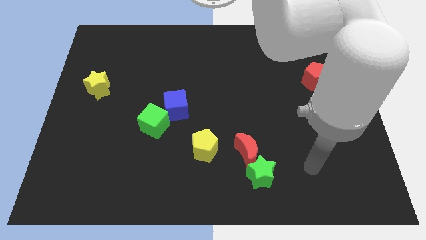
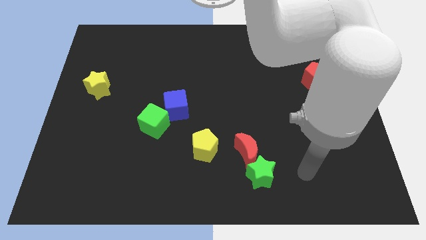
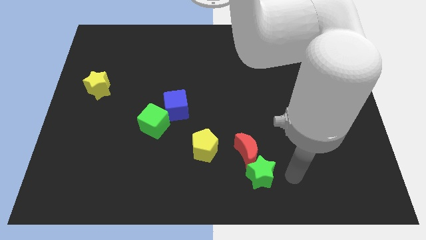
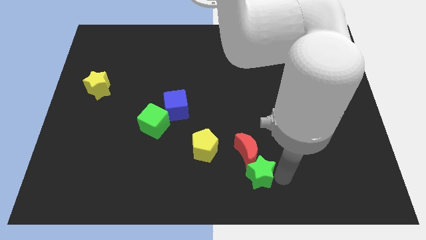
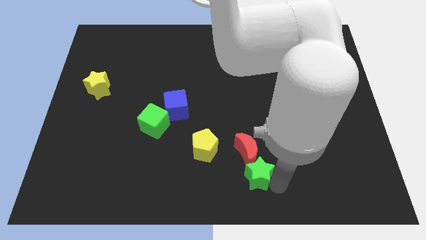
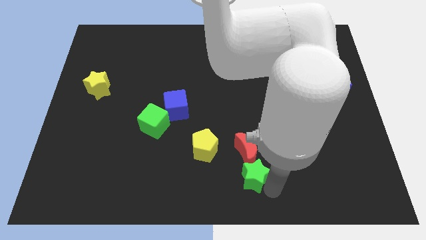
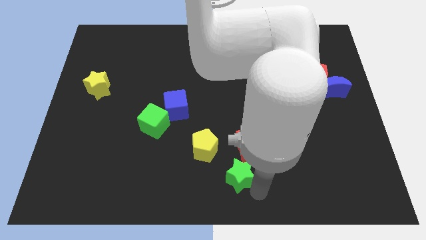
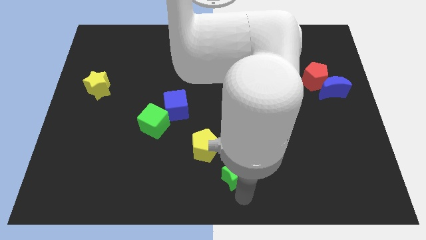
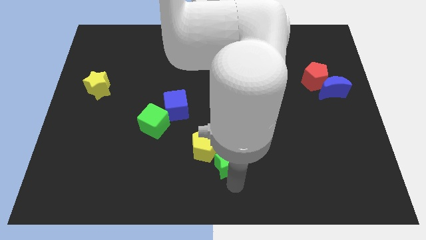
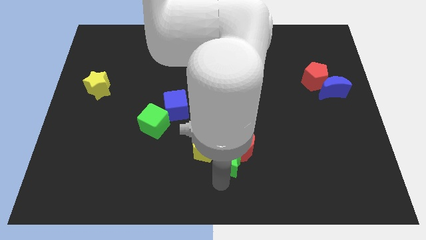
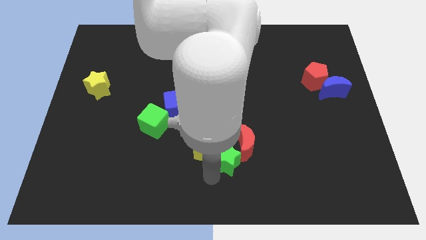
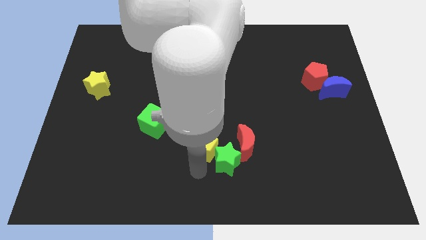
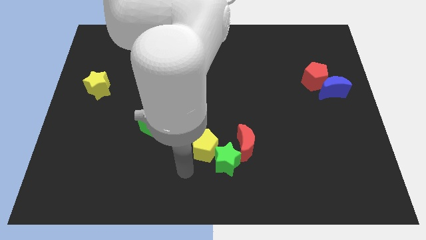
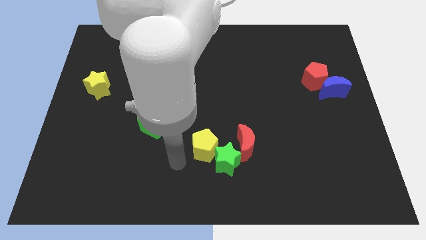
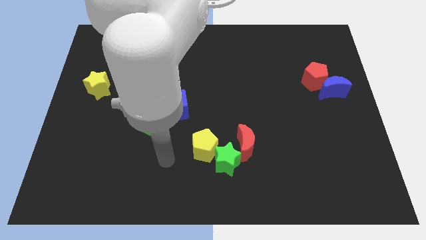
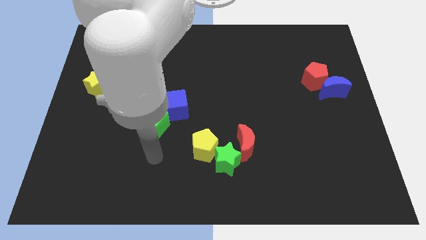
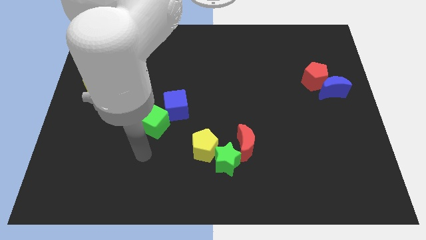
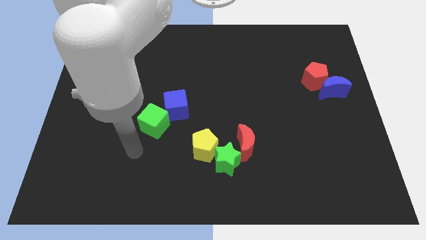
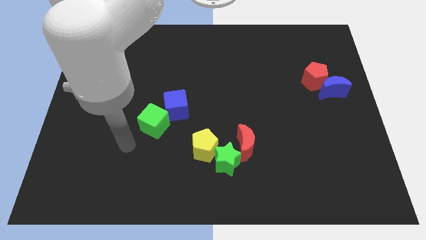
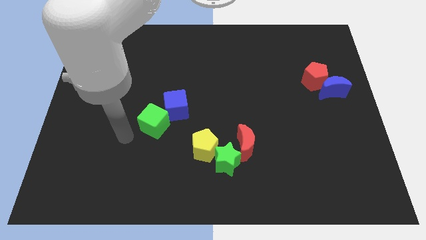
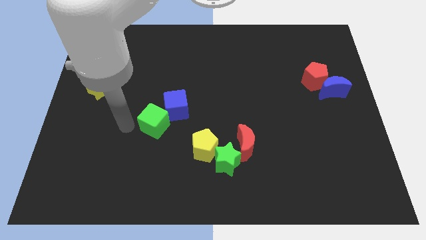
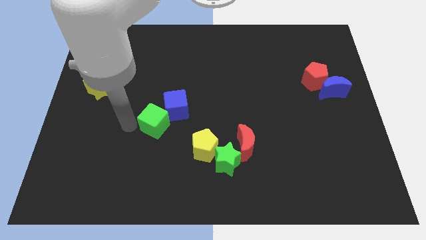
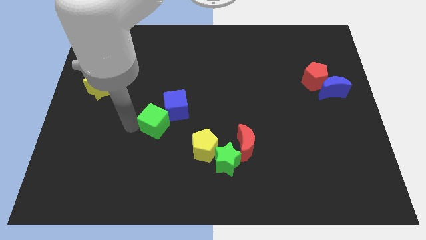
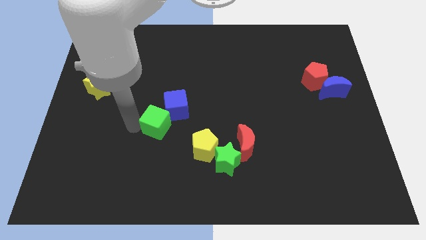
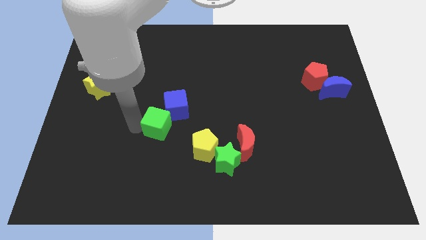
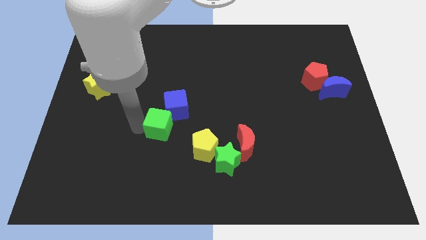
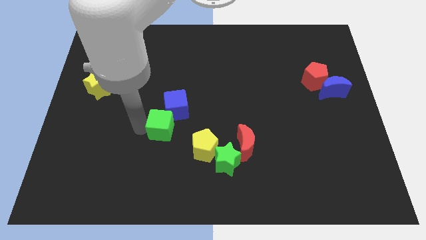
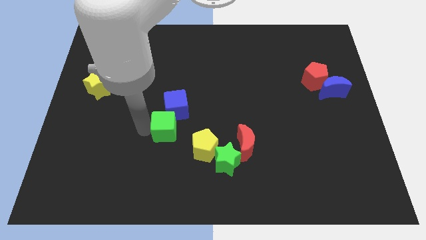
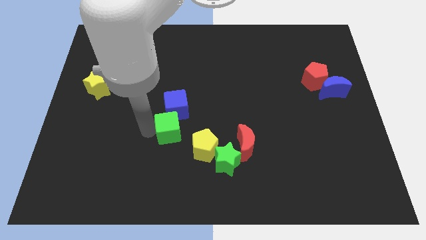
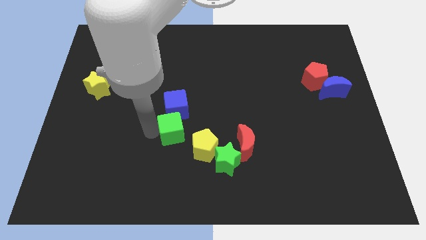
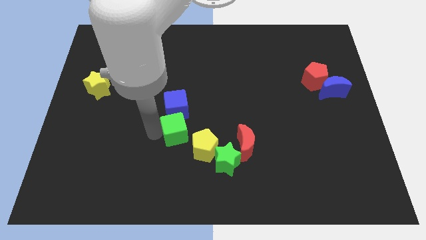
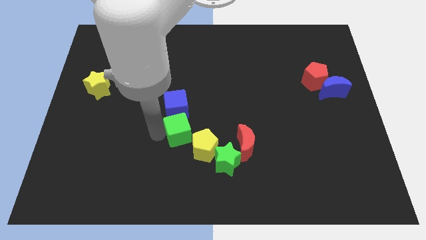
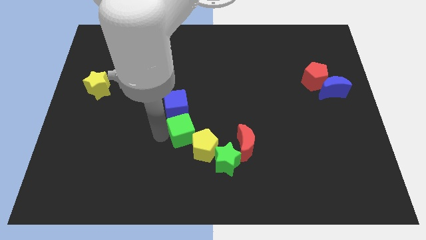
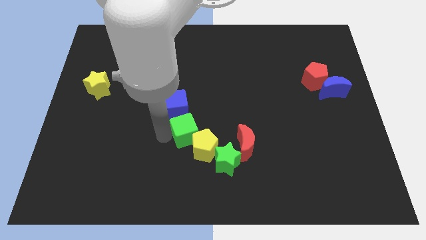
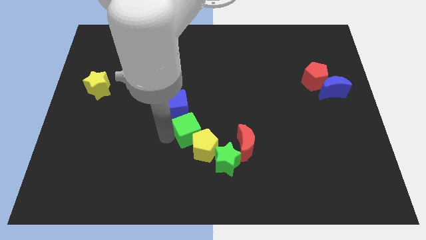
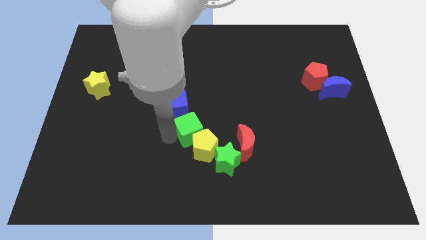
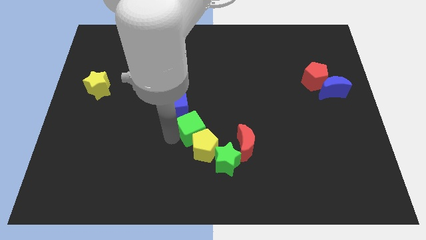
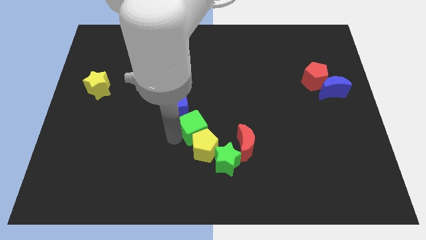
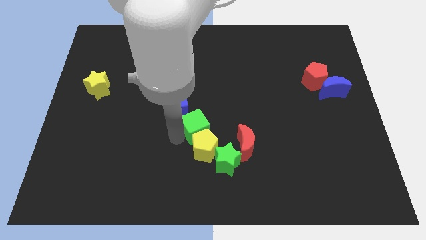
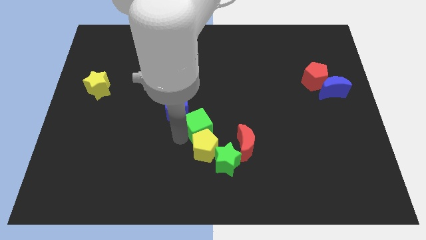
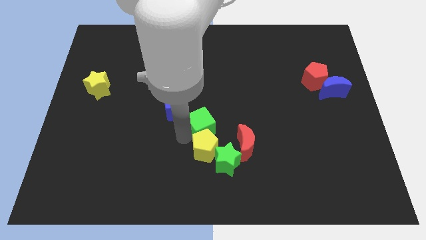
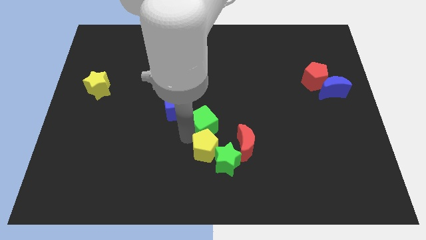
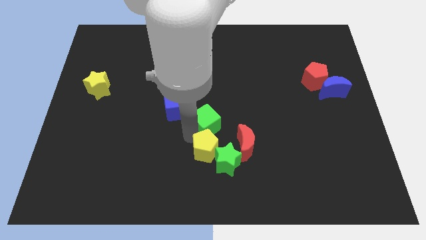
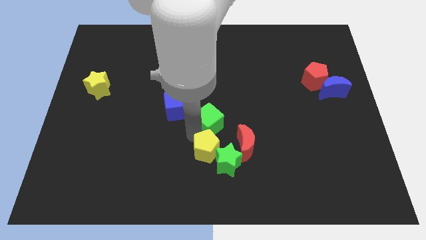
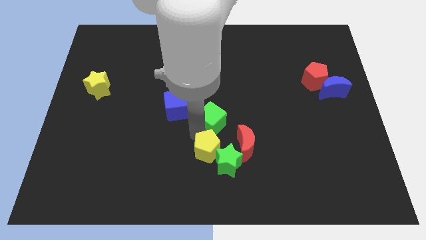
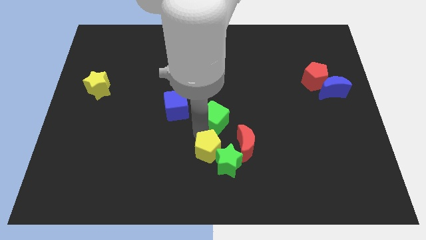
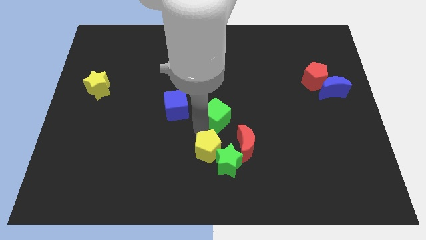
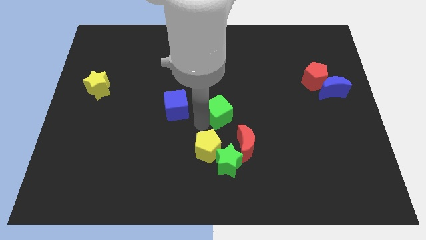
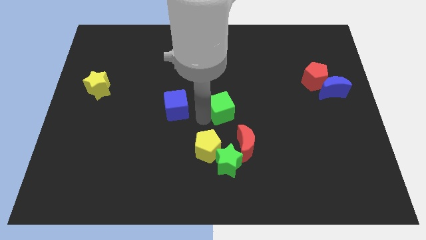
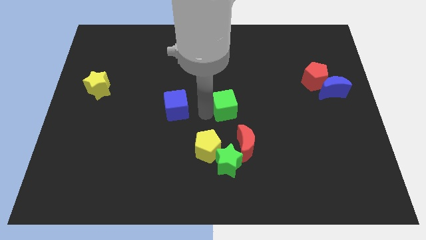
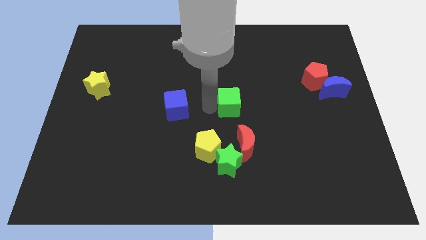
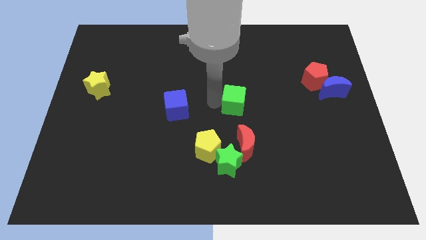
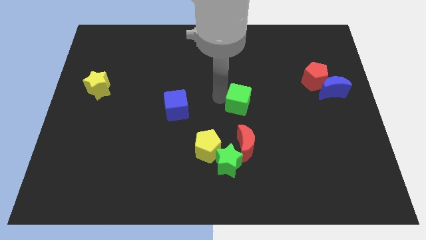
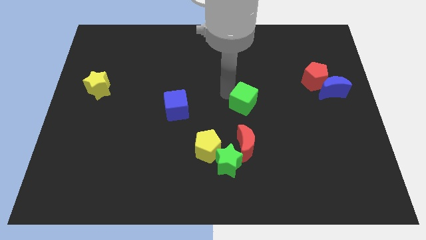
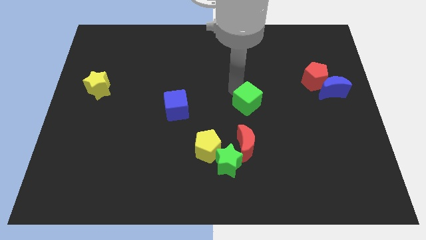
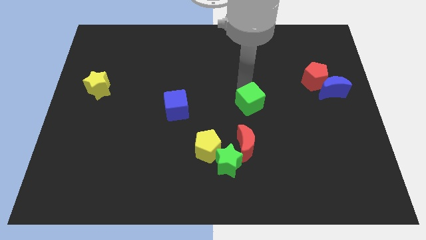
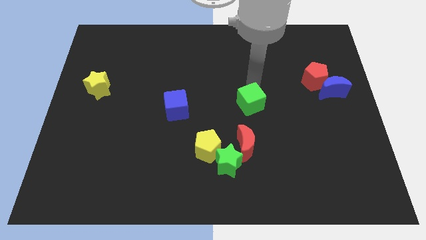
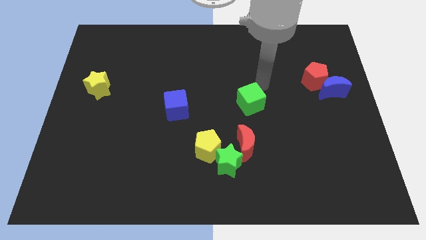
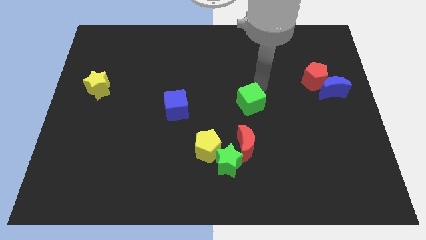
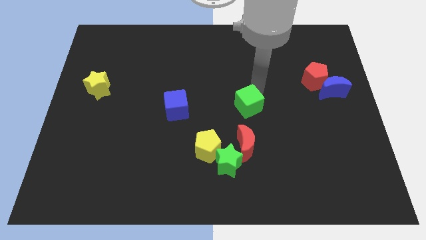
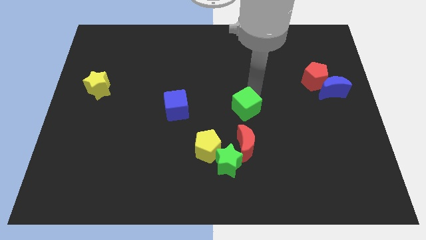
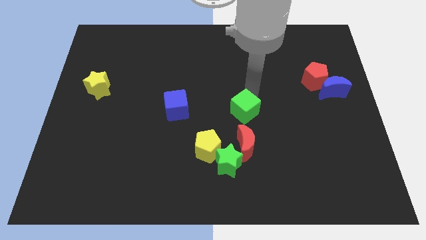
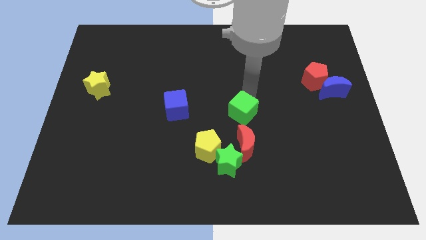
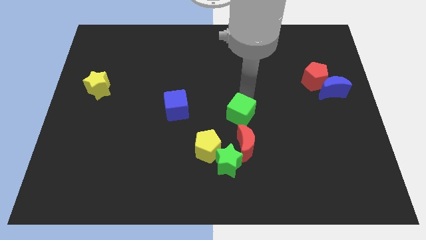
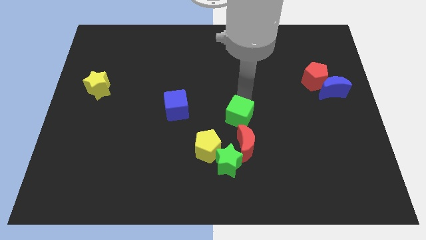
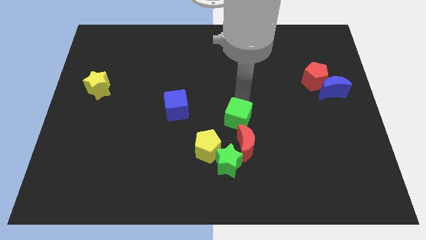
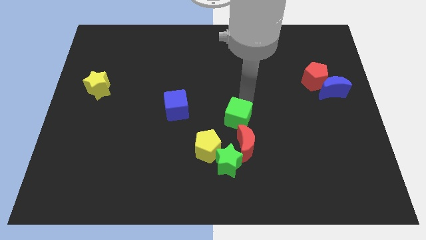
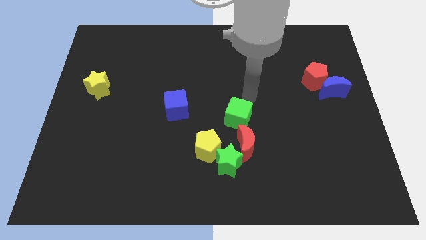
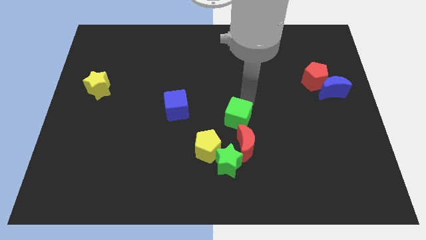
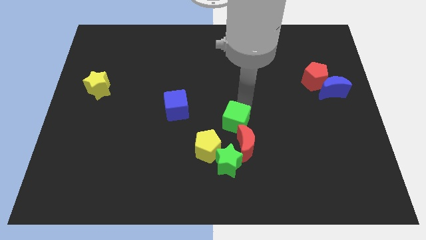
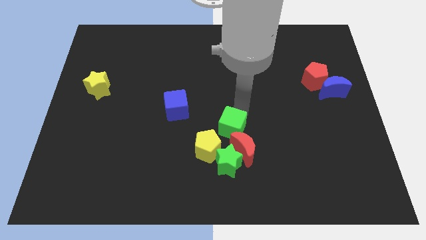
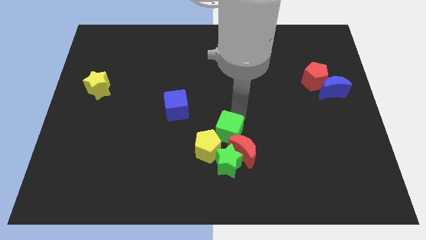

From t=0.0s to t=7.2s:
slide the green cube close to the red moon
